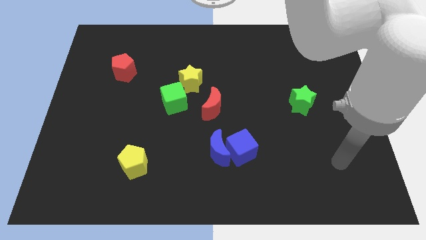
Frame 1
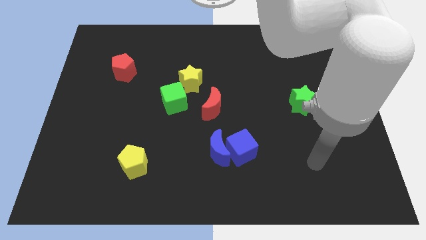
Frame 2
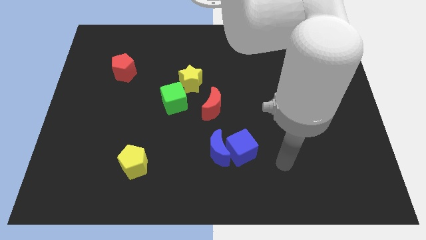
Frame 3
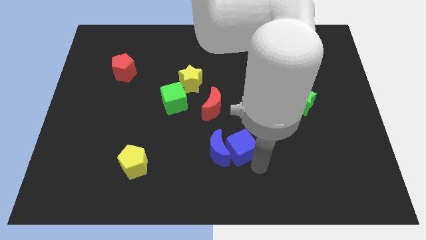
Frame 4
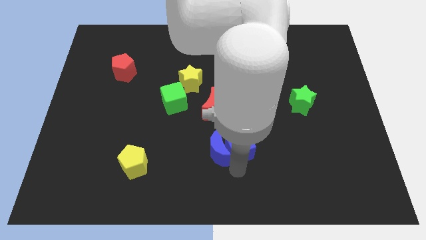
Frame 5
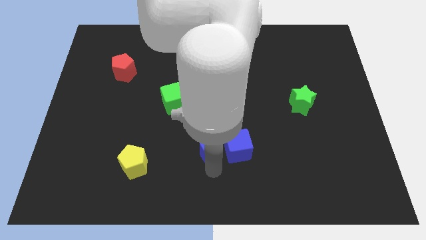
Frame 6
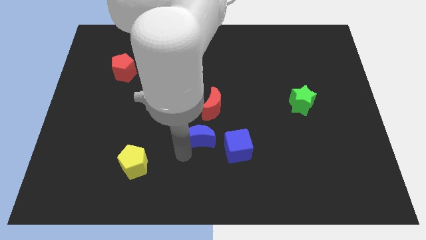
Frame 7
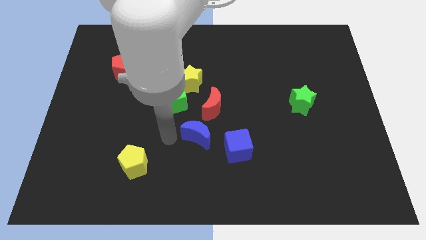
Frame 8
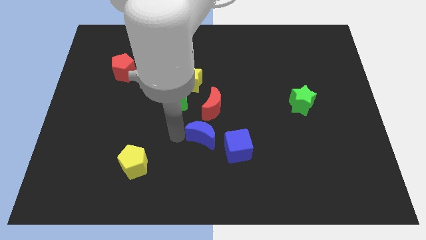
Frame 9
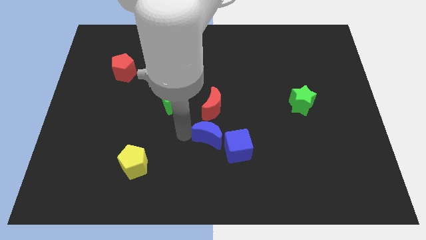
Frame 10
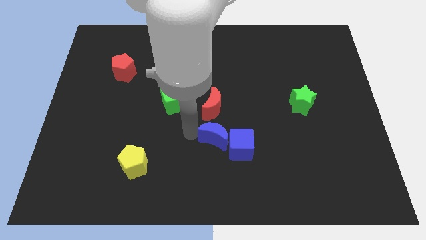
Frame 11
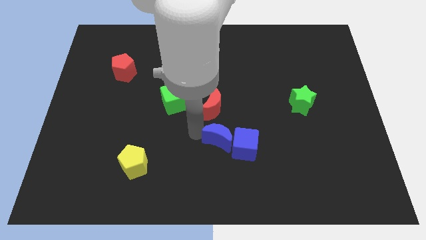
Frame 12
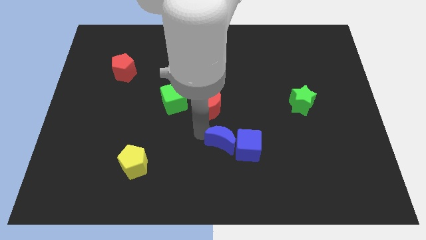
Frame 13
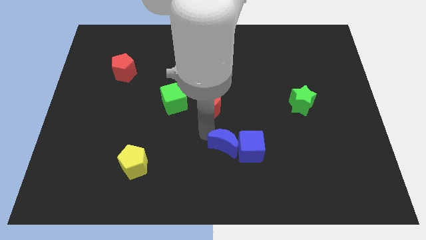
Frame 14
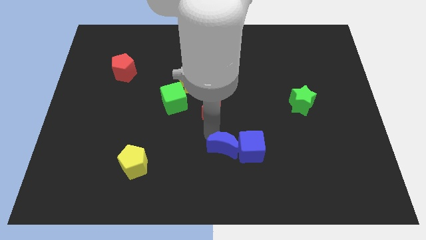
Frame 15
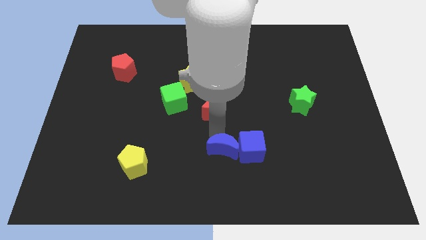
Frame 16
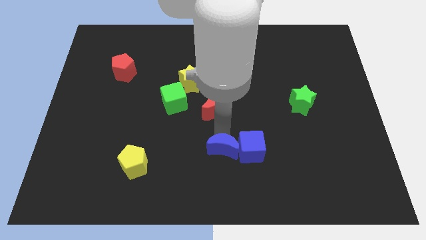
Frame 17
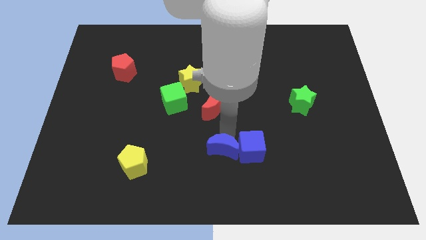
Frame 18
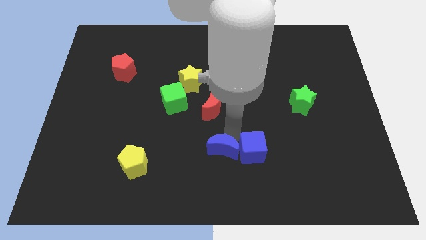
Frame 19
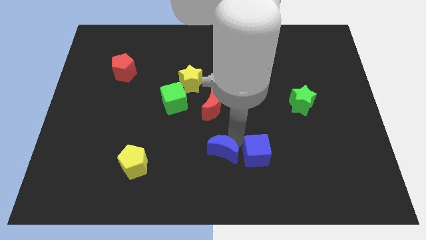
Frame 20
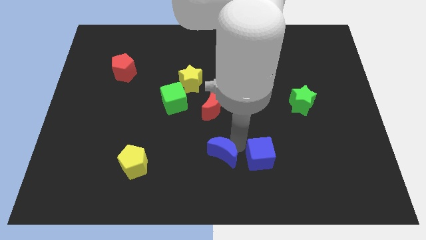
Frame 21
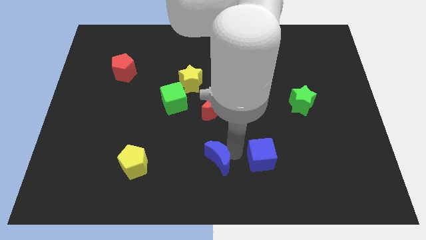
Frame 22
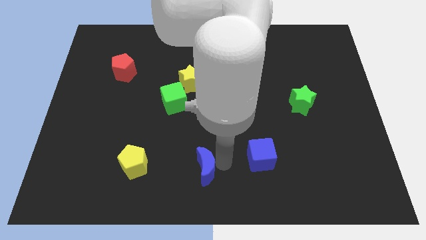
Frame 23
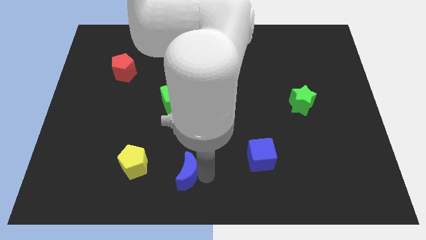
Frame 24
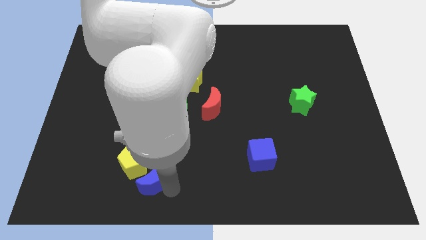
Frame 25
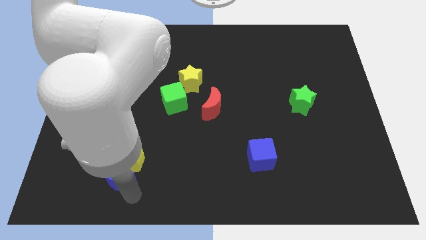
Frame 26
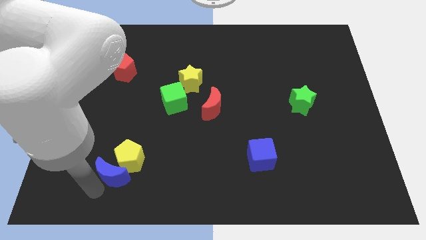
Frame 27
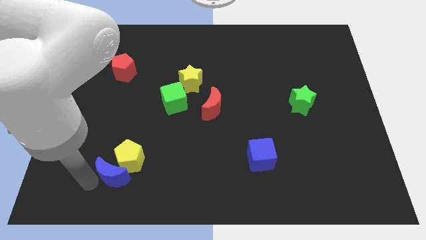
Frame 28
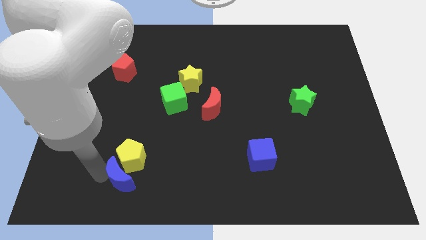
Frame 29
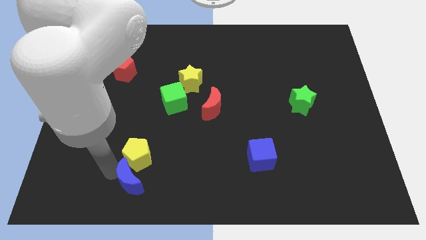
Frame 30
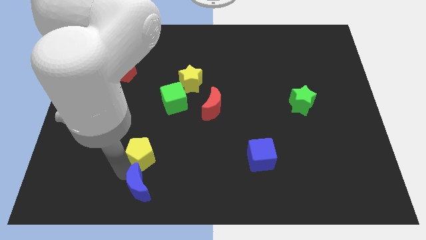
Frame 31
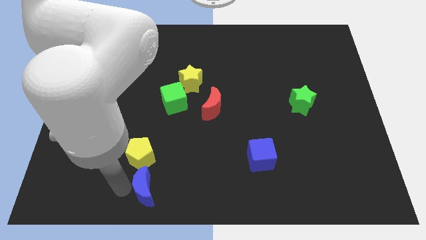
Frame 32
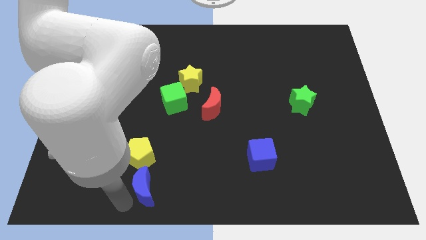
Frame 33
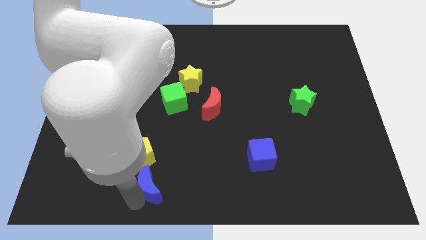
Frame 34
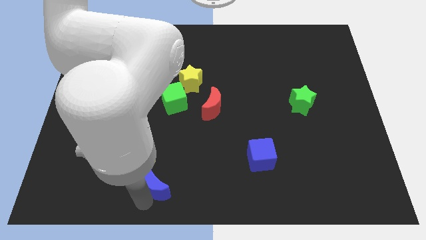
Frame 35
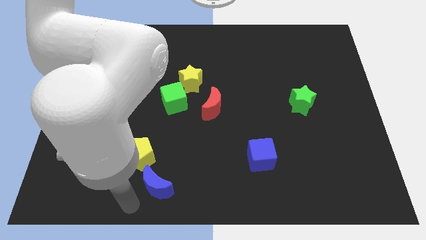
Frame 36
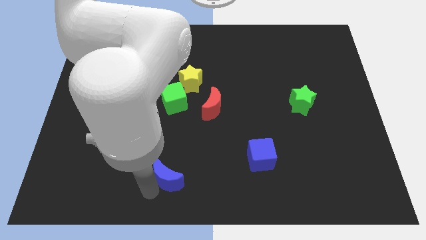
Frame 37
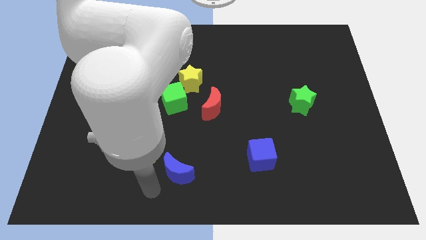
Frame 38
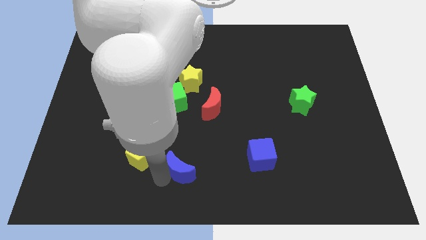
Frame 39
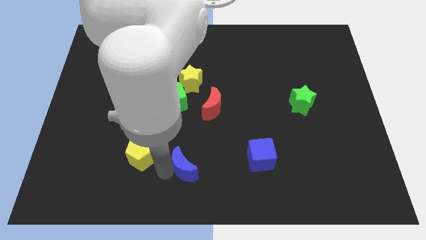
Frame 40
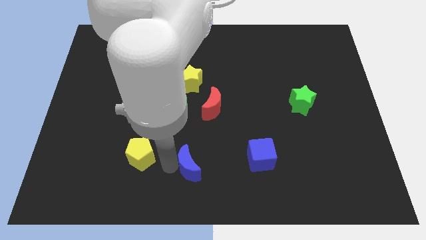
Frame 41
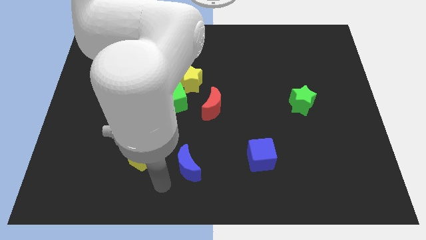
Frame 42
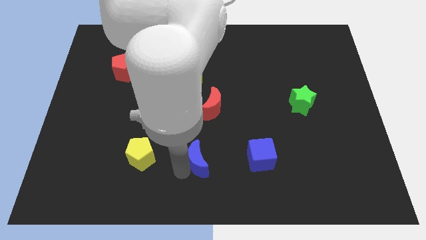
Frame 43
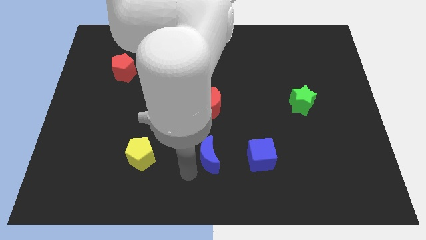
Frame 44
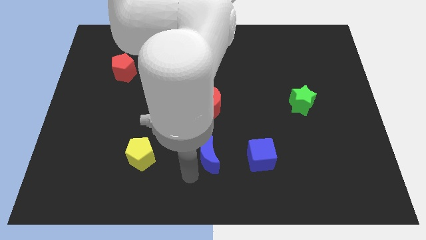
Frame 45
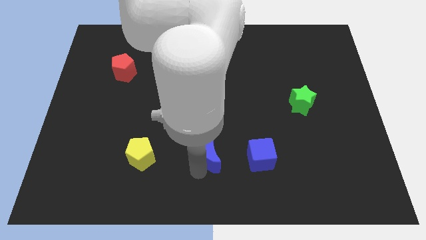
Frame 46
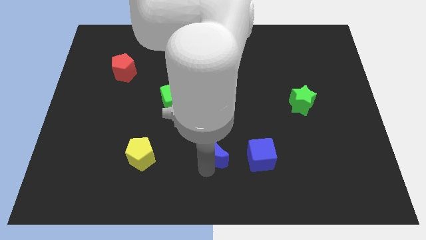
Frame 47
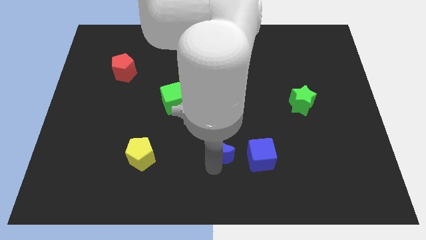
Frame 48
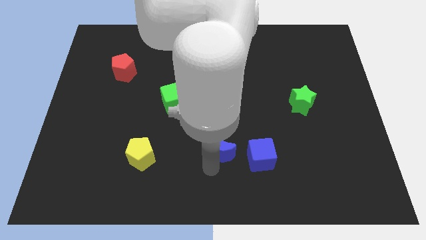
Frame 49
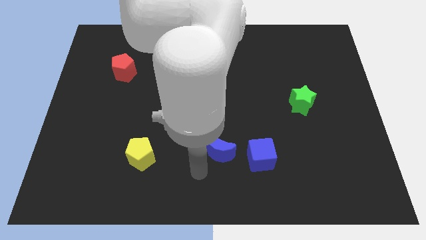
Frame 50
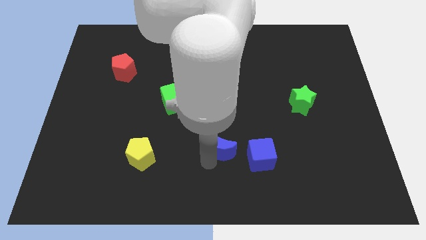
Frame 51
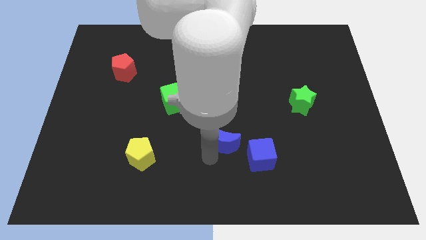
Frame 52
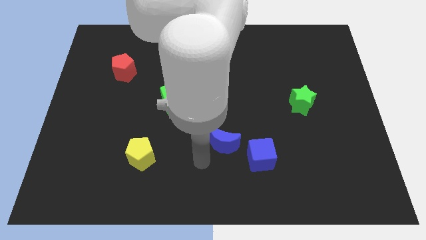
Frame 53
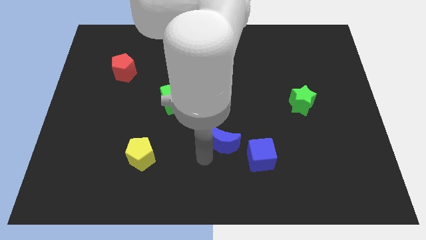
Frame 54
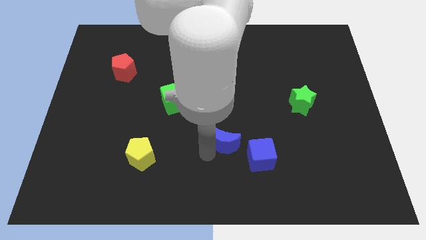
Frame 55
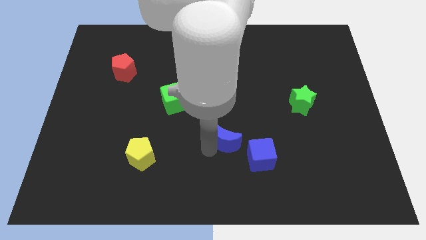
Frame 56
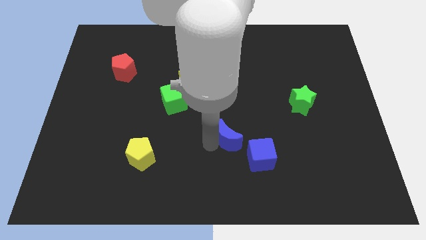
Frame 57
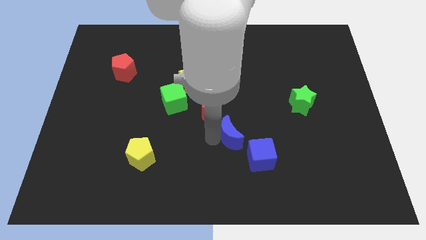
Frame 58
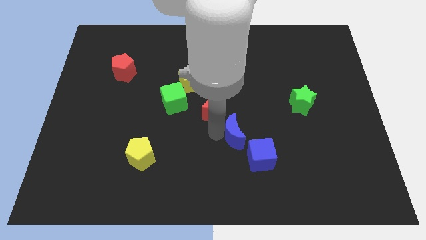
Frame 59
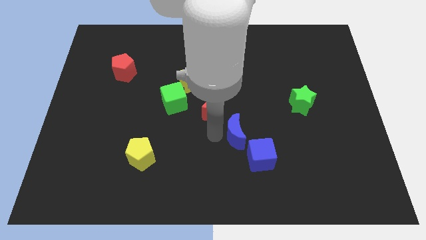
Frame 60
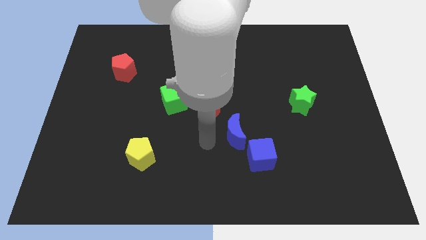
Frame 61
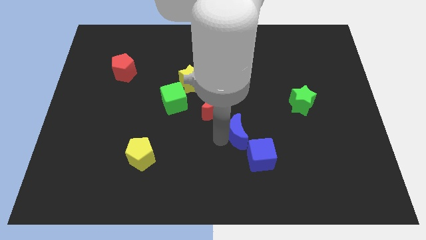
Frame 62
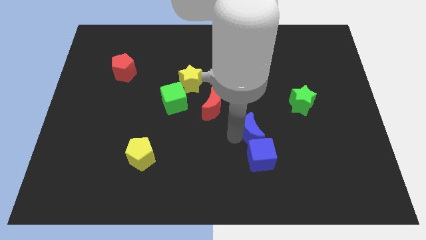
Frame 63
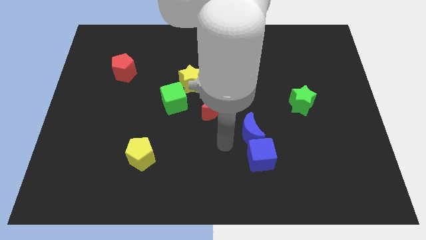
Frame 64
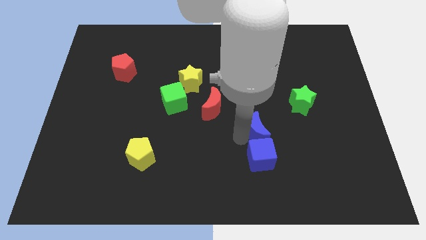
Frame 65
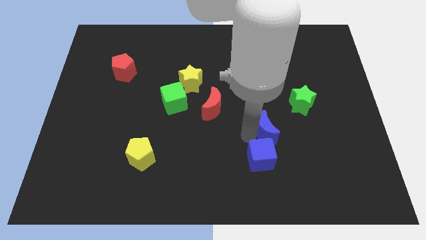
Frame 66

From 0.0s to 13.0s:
move the blue moon to the bottom left side of the green star

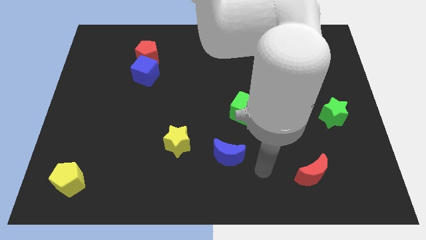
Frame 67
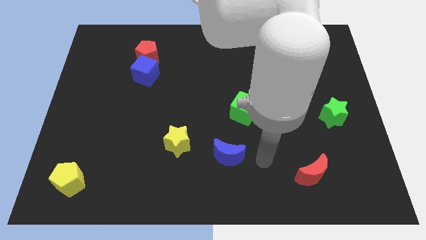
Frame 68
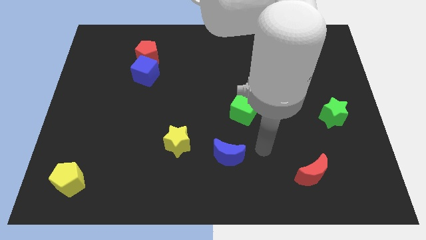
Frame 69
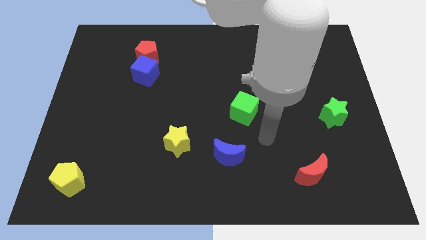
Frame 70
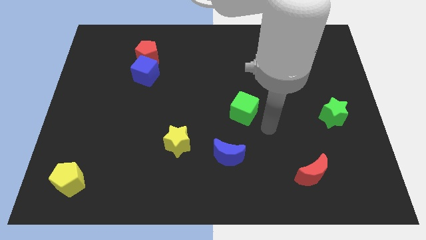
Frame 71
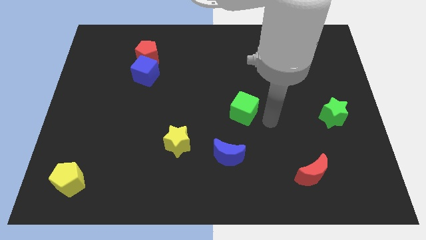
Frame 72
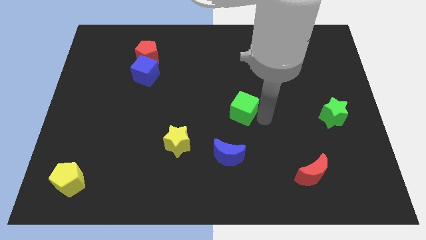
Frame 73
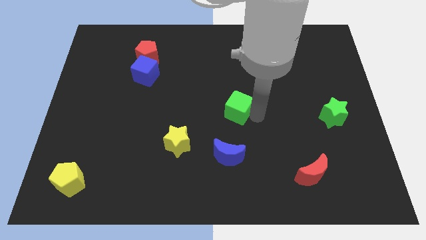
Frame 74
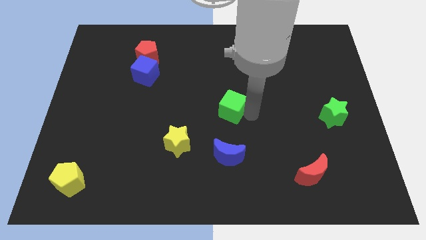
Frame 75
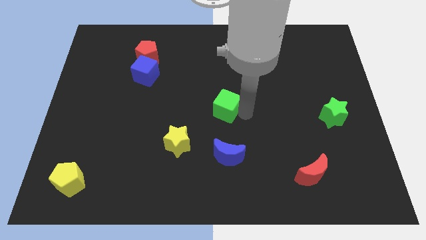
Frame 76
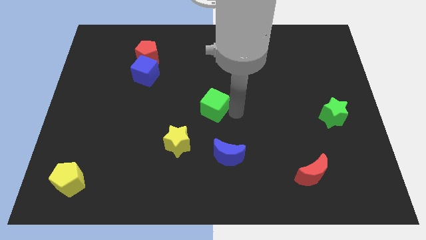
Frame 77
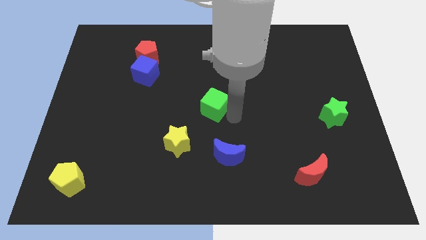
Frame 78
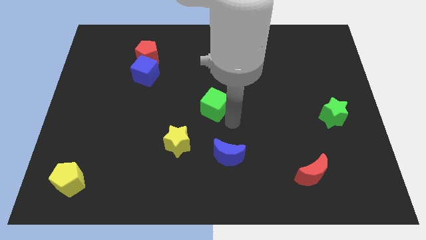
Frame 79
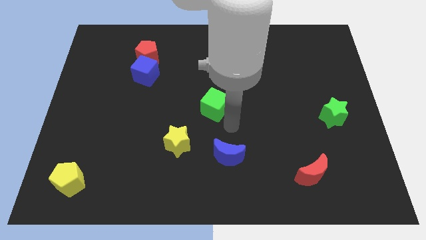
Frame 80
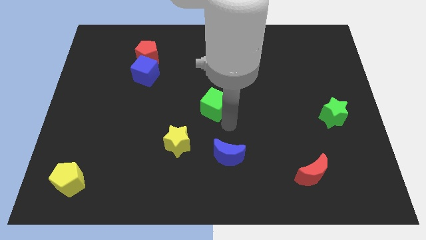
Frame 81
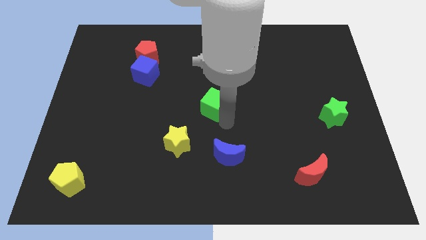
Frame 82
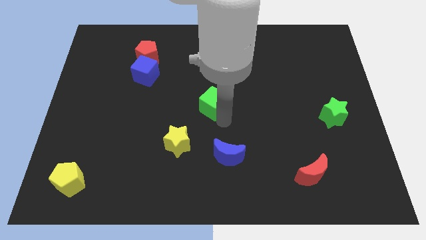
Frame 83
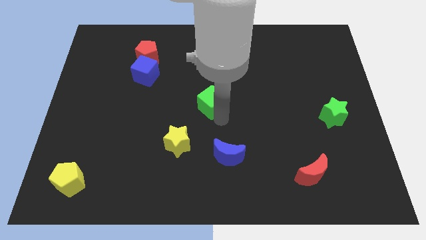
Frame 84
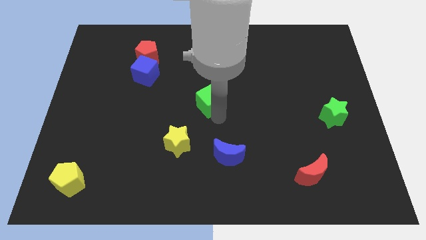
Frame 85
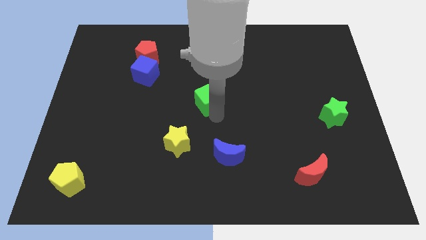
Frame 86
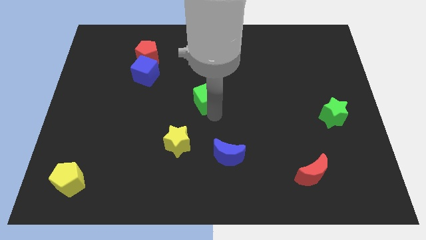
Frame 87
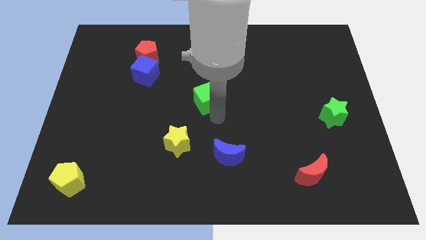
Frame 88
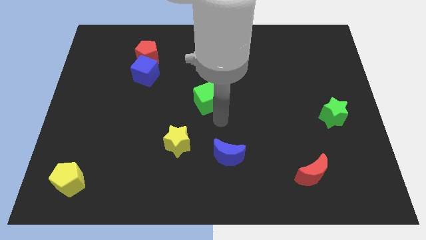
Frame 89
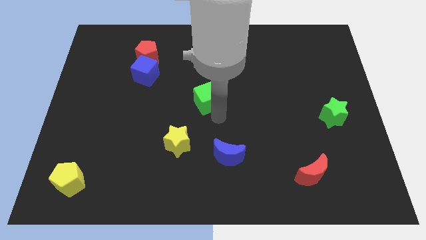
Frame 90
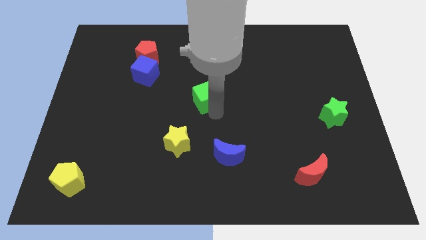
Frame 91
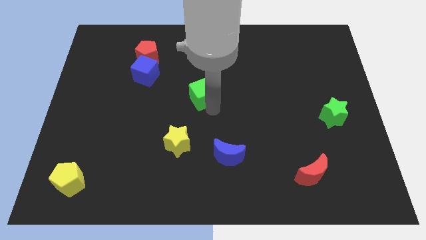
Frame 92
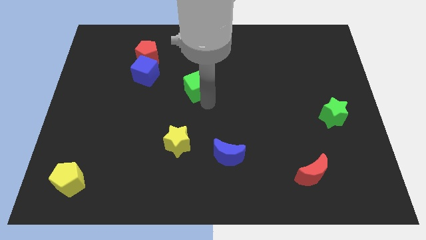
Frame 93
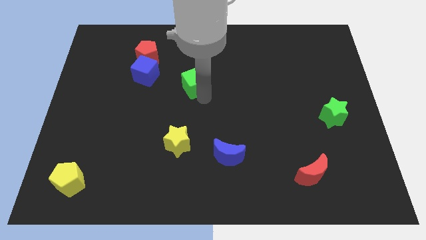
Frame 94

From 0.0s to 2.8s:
push the green cube to the right side of the blue cube
